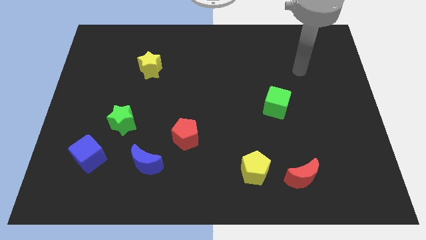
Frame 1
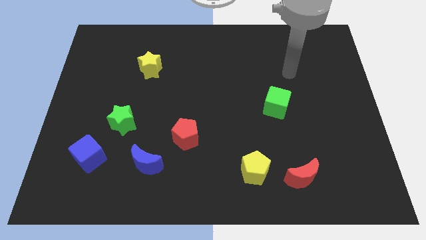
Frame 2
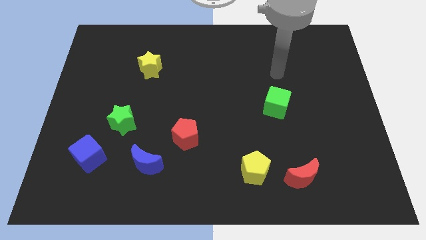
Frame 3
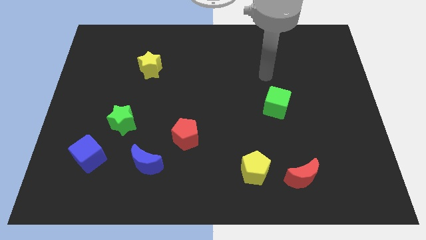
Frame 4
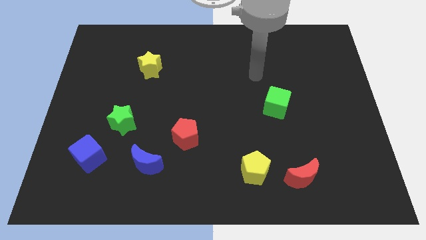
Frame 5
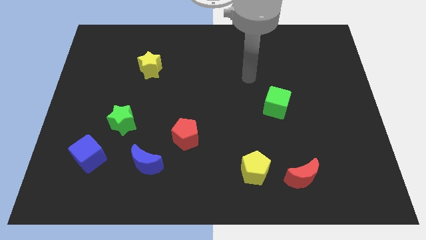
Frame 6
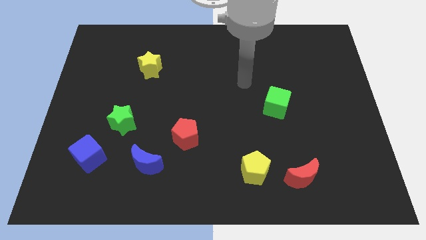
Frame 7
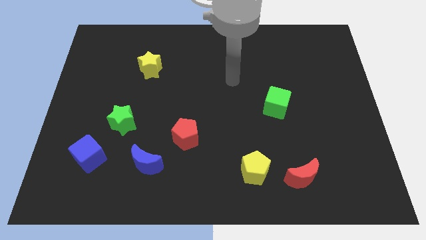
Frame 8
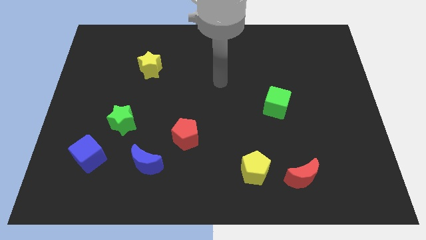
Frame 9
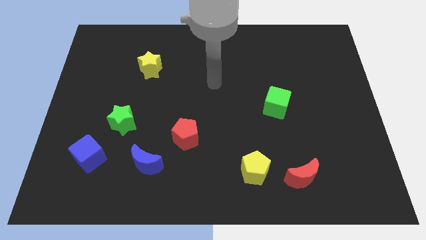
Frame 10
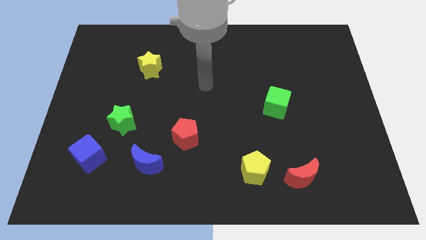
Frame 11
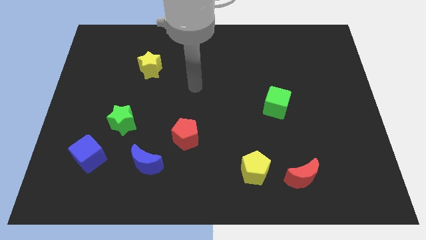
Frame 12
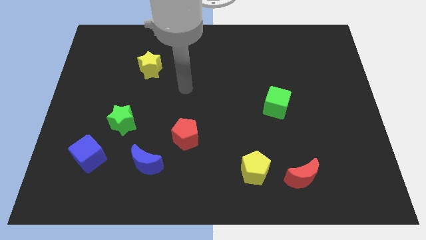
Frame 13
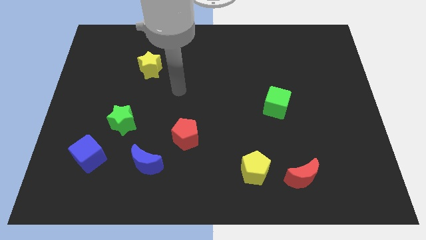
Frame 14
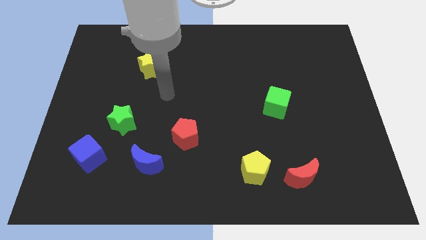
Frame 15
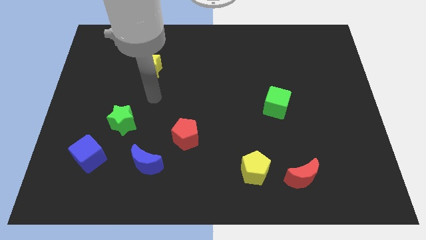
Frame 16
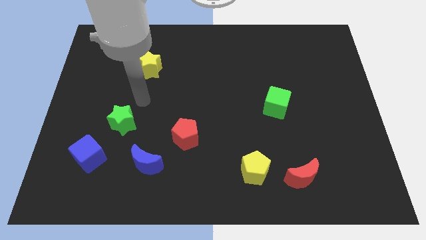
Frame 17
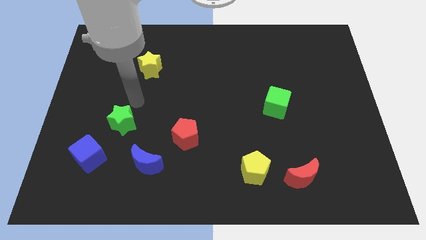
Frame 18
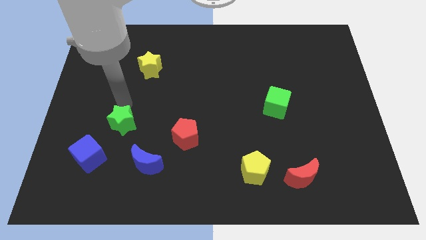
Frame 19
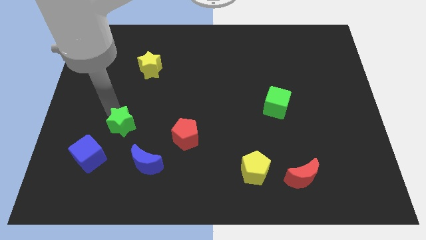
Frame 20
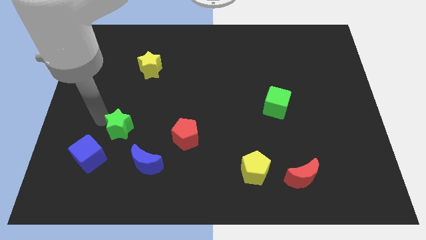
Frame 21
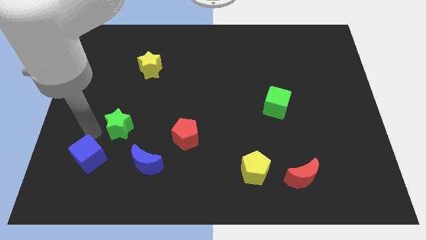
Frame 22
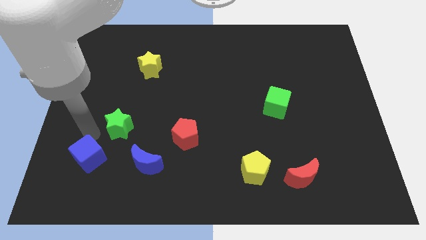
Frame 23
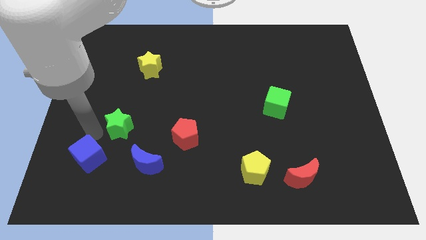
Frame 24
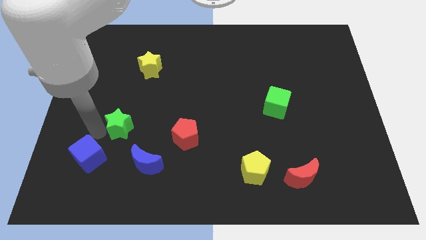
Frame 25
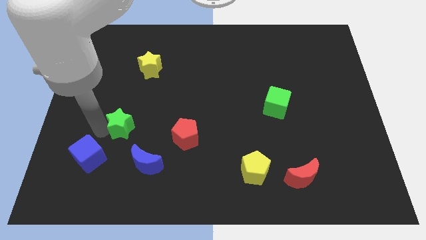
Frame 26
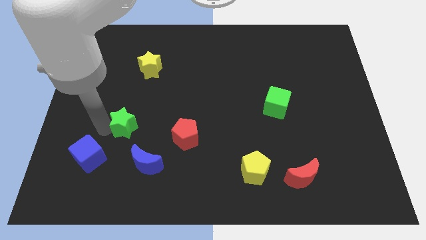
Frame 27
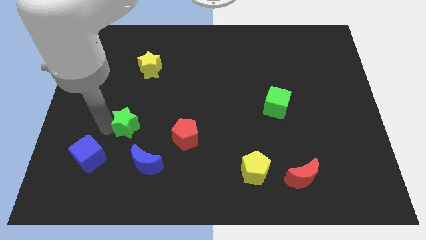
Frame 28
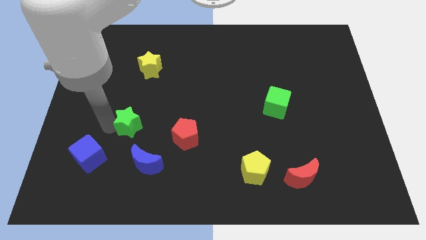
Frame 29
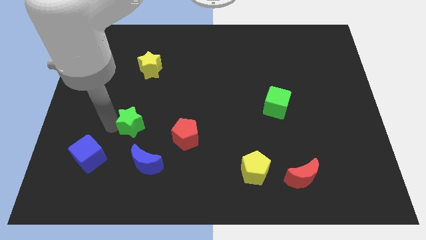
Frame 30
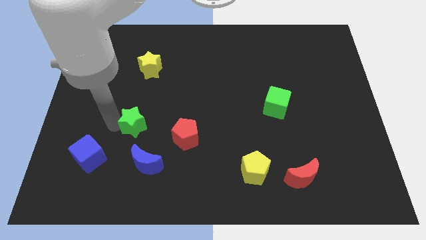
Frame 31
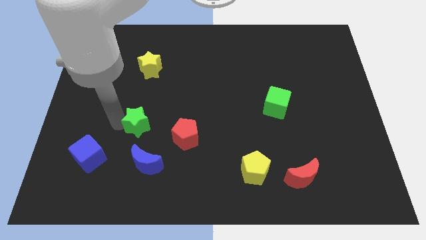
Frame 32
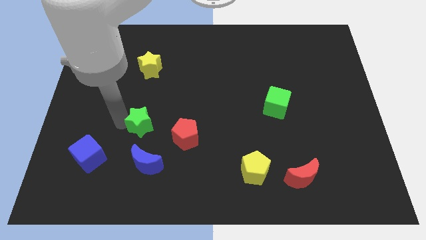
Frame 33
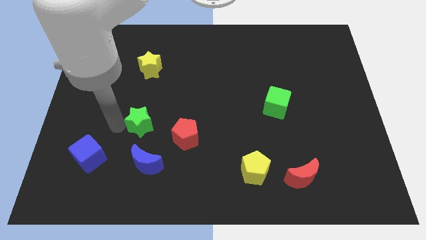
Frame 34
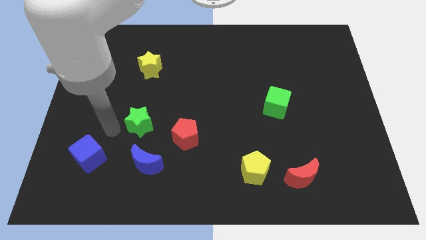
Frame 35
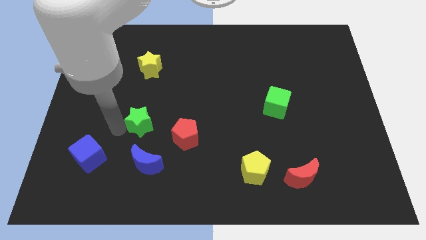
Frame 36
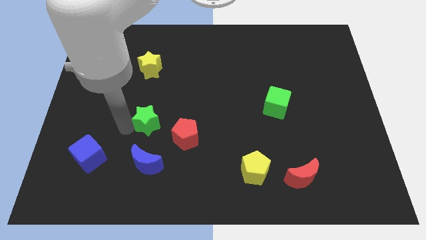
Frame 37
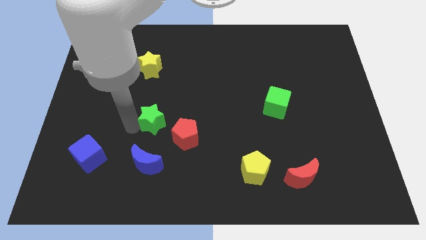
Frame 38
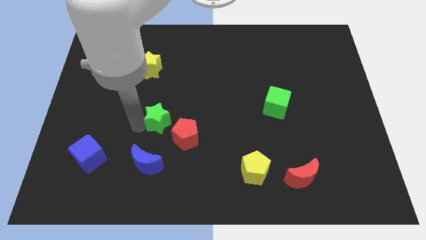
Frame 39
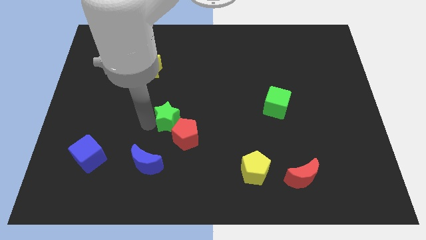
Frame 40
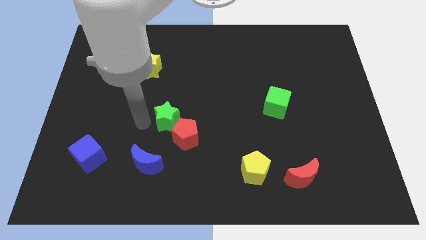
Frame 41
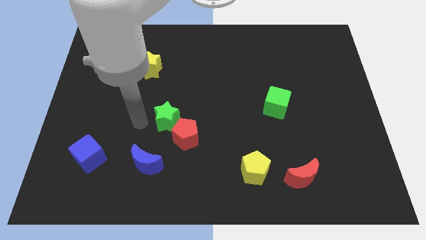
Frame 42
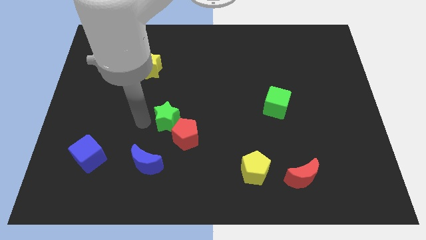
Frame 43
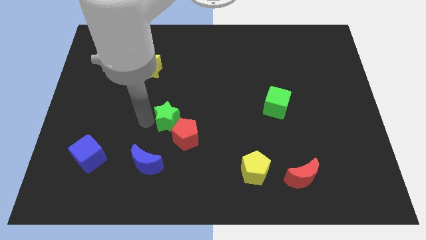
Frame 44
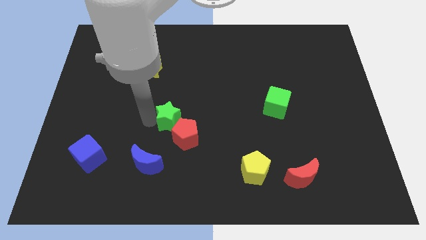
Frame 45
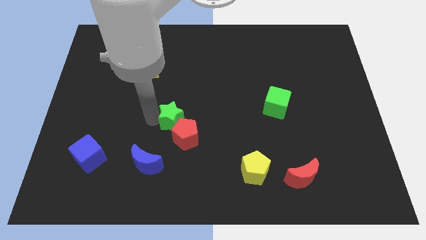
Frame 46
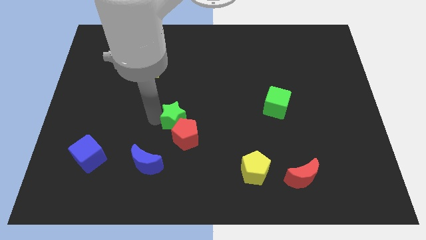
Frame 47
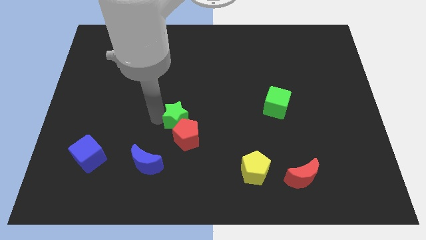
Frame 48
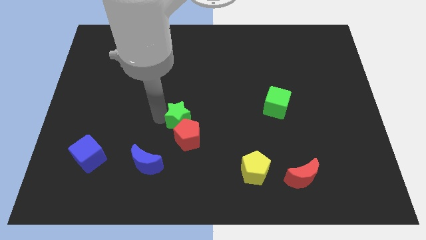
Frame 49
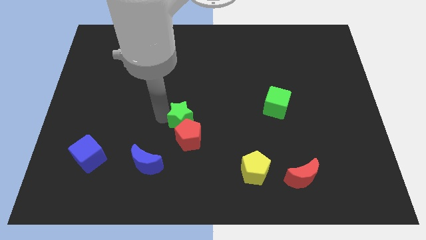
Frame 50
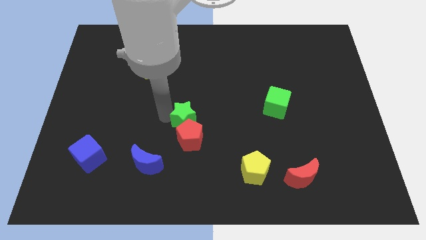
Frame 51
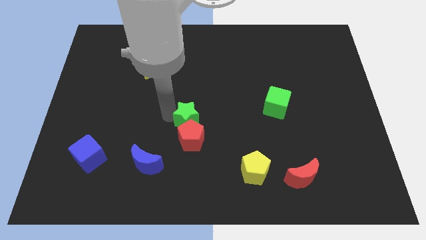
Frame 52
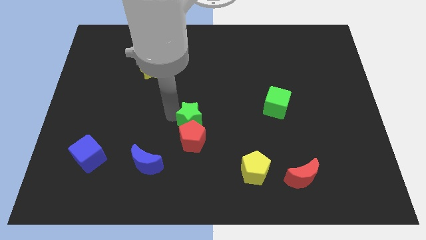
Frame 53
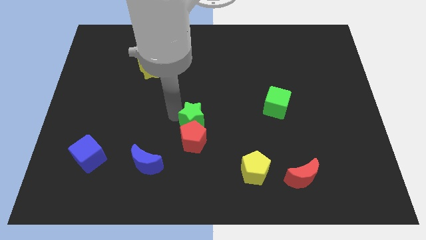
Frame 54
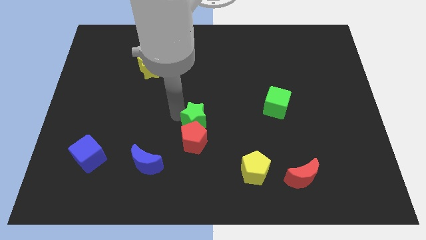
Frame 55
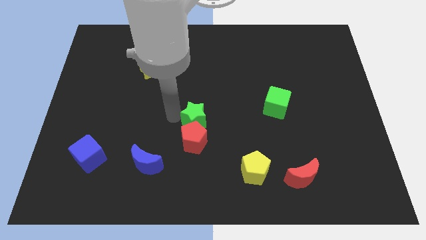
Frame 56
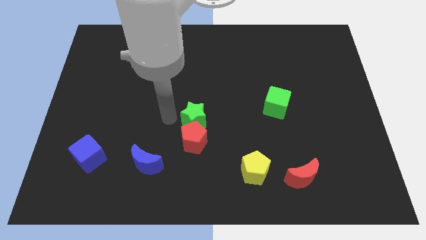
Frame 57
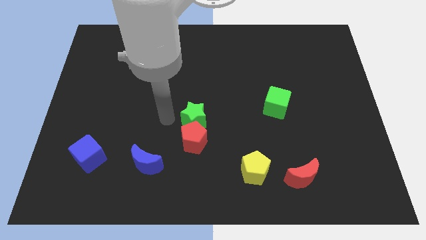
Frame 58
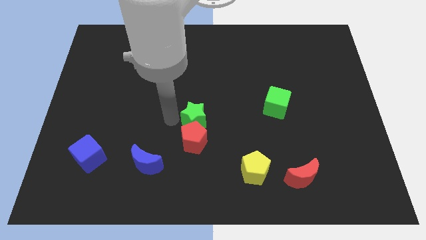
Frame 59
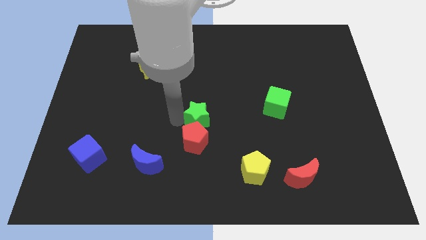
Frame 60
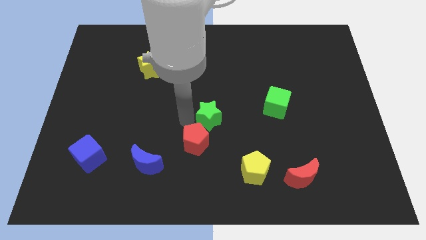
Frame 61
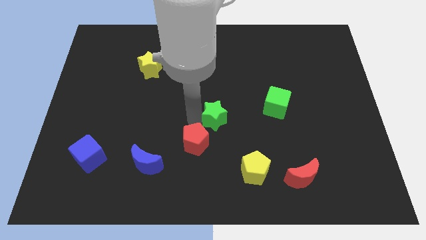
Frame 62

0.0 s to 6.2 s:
push the green star right

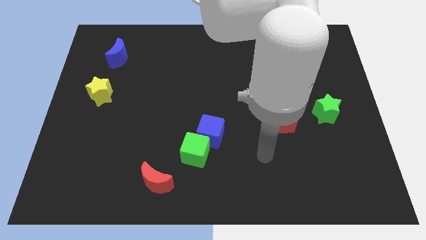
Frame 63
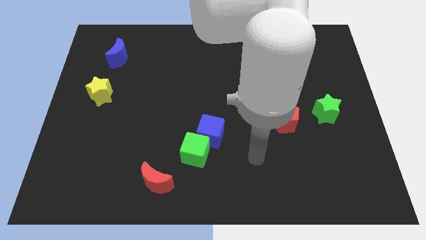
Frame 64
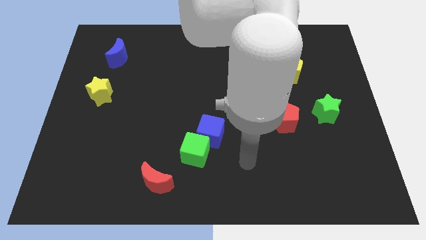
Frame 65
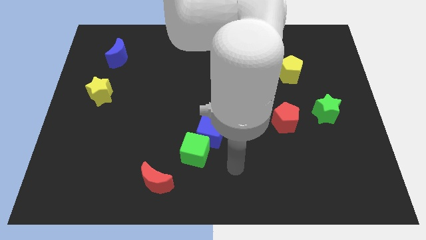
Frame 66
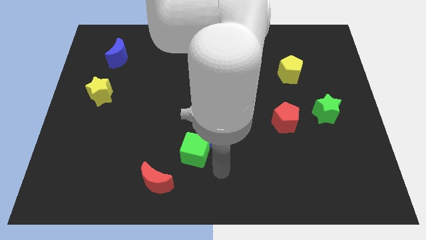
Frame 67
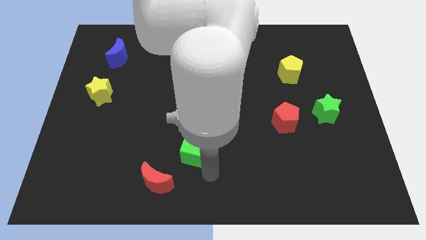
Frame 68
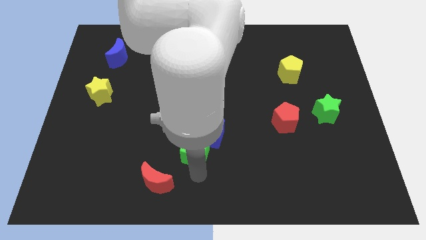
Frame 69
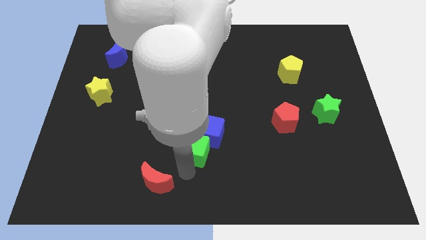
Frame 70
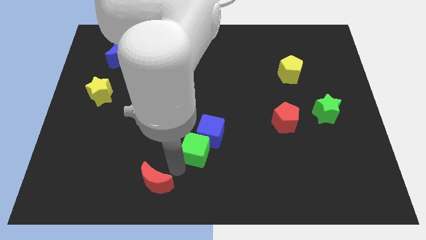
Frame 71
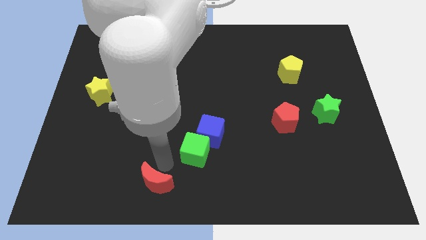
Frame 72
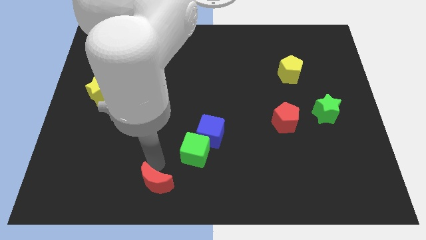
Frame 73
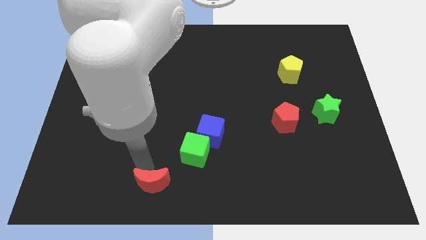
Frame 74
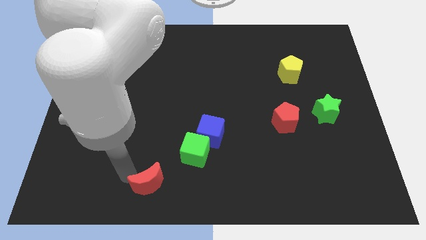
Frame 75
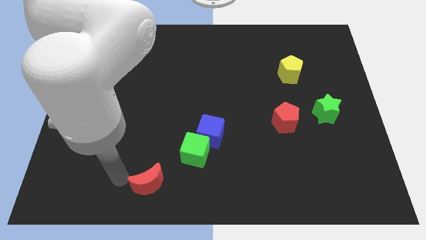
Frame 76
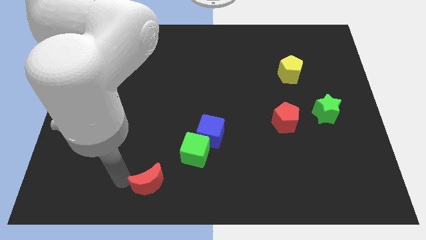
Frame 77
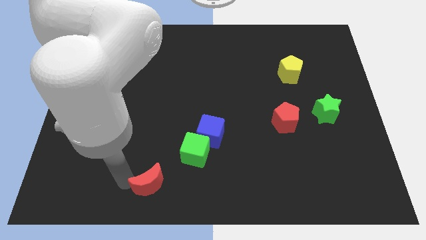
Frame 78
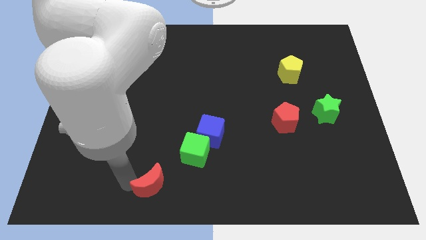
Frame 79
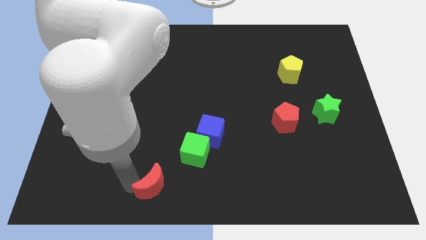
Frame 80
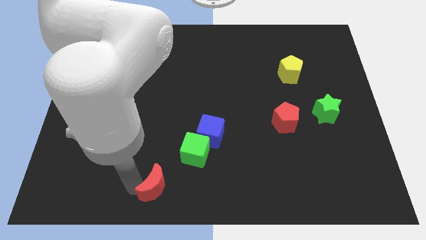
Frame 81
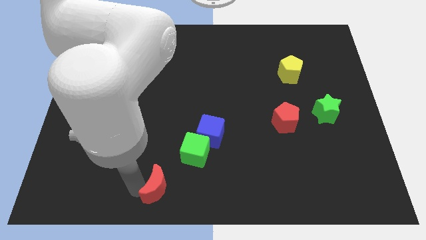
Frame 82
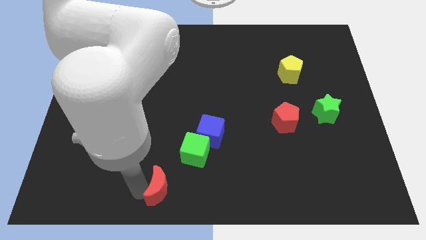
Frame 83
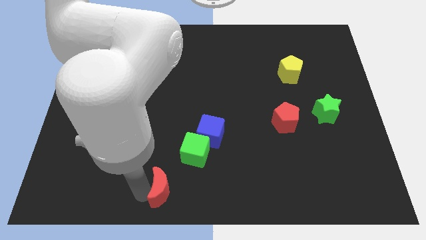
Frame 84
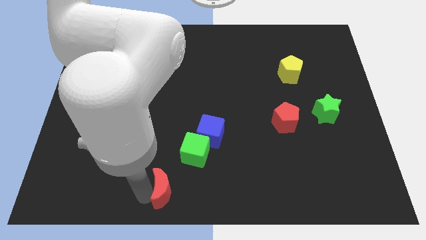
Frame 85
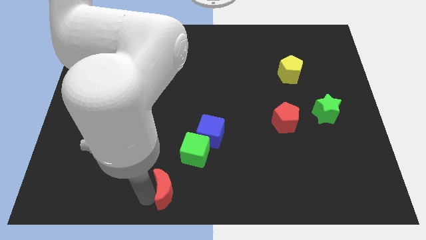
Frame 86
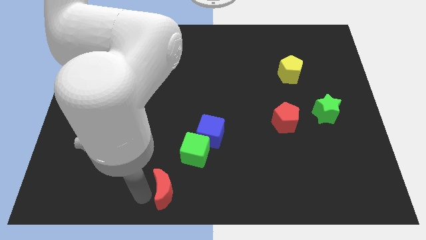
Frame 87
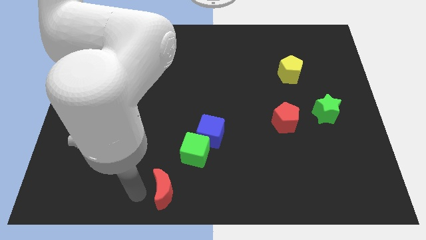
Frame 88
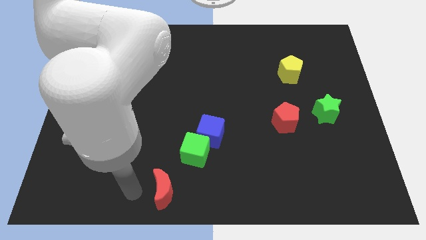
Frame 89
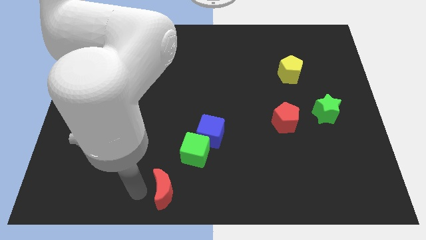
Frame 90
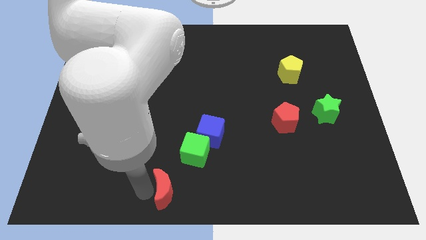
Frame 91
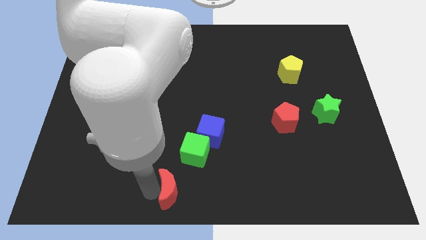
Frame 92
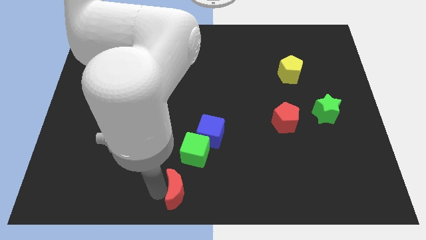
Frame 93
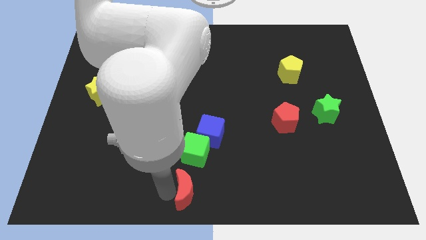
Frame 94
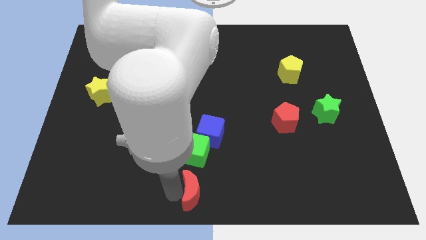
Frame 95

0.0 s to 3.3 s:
slightly slide the red moon to the right
